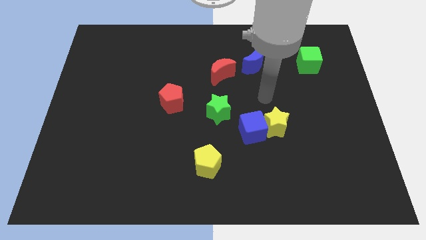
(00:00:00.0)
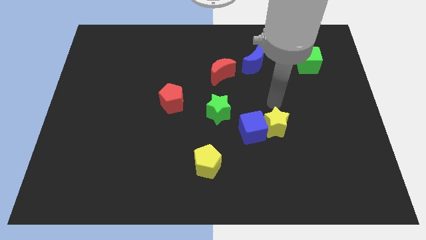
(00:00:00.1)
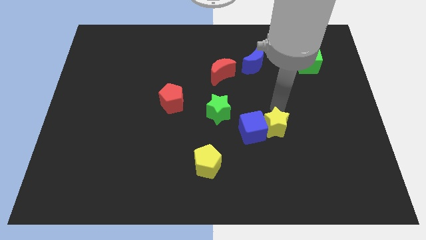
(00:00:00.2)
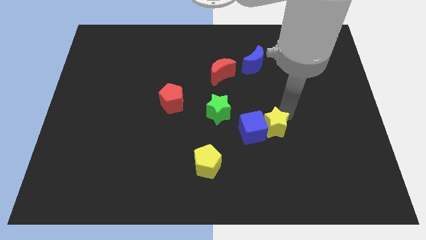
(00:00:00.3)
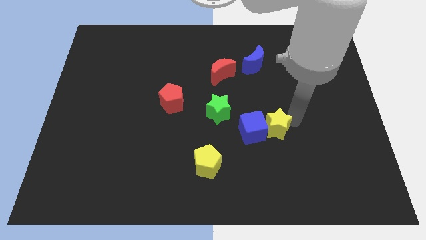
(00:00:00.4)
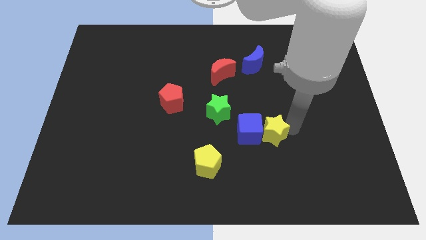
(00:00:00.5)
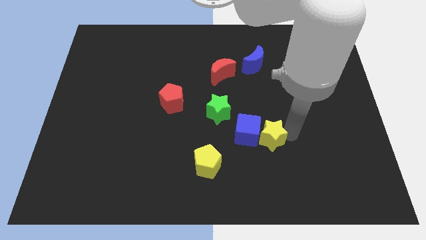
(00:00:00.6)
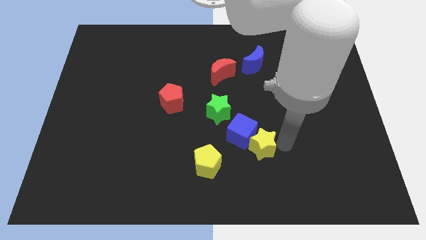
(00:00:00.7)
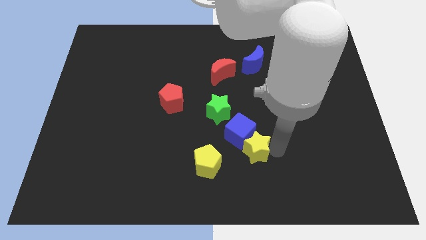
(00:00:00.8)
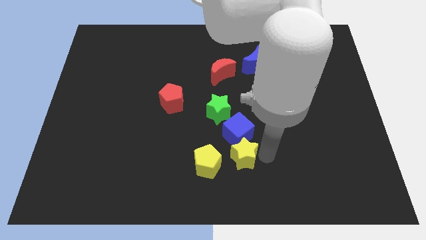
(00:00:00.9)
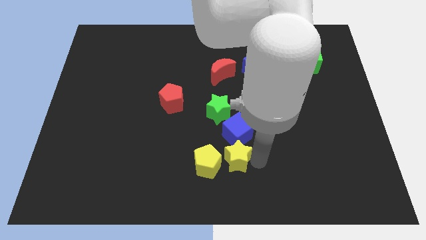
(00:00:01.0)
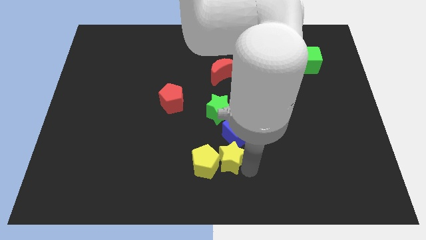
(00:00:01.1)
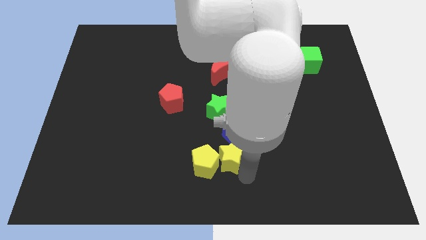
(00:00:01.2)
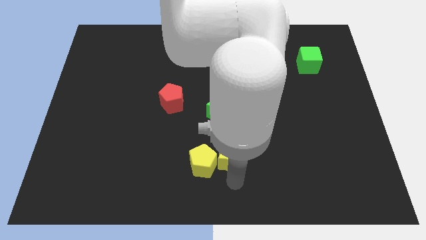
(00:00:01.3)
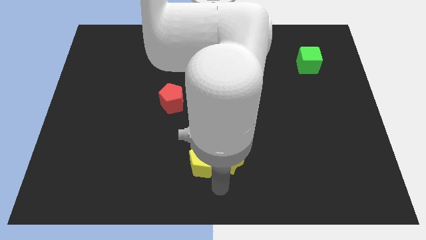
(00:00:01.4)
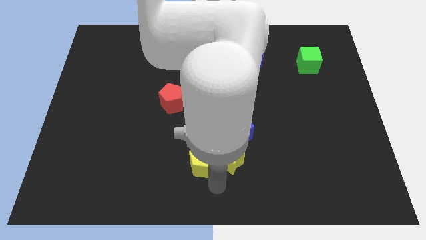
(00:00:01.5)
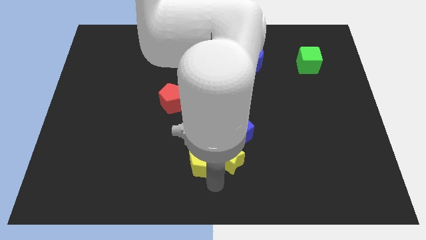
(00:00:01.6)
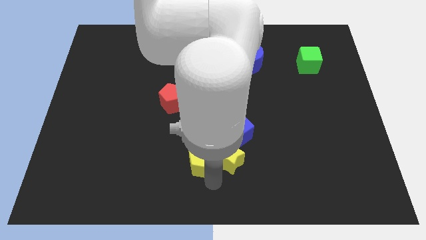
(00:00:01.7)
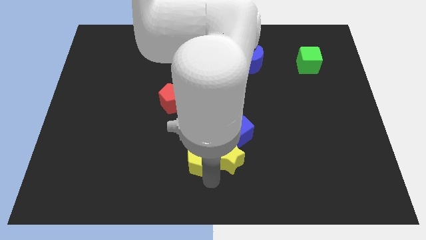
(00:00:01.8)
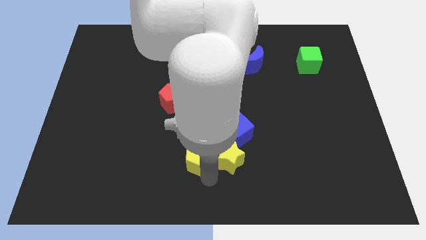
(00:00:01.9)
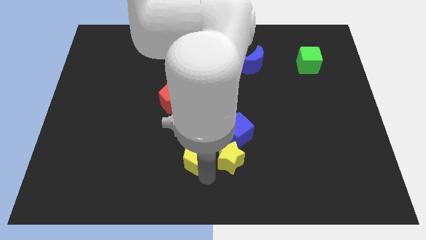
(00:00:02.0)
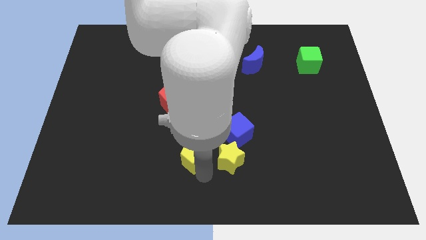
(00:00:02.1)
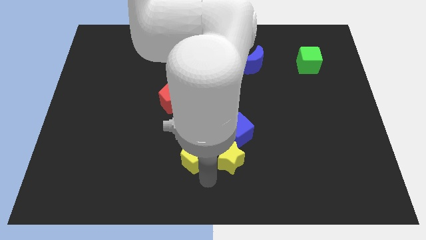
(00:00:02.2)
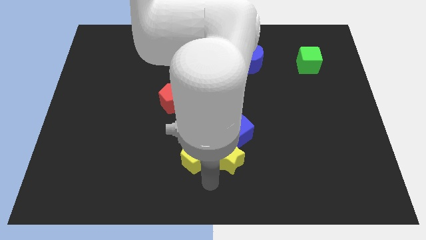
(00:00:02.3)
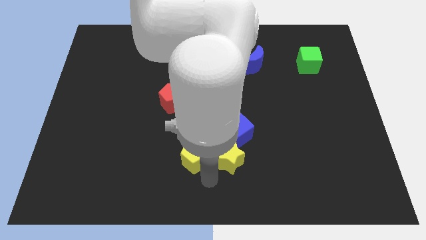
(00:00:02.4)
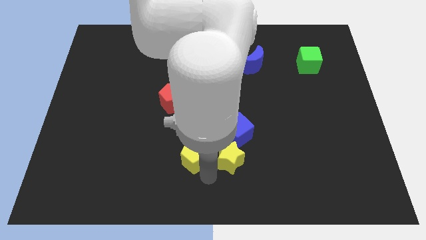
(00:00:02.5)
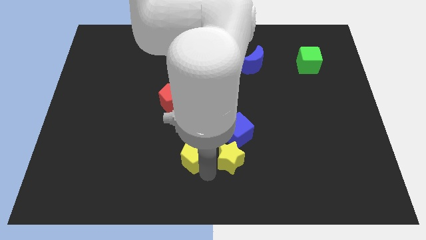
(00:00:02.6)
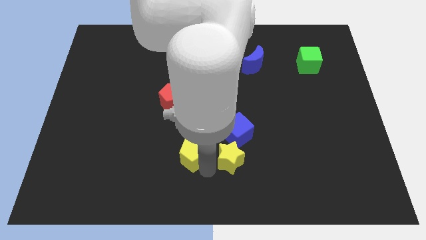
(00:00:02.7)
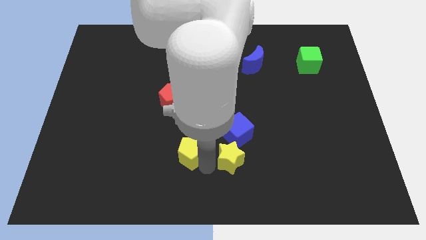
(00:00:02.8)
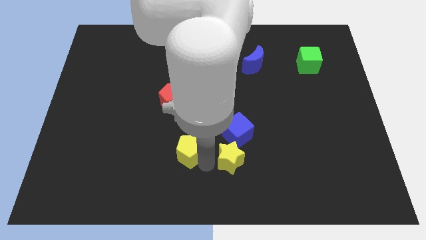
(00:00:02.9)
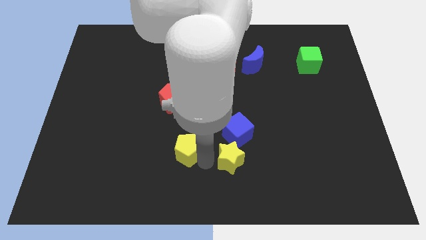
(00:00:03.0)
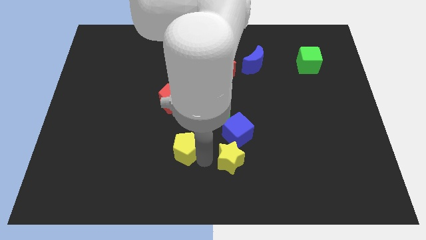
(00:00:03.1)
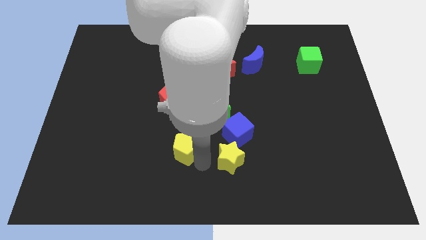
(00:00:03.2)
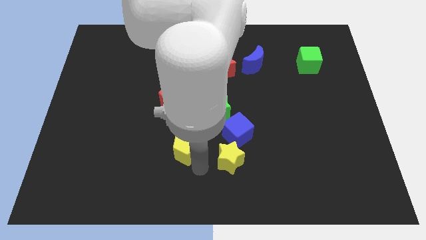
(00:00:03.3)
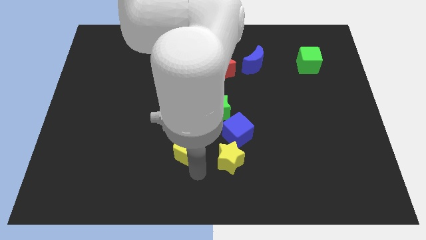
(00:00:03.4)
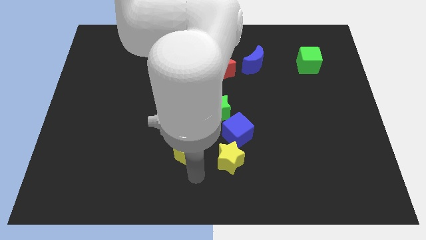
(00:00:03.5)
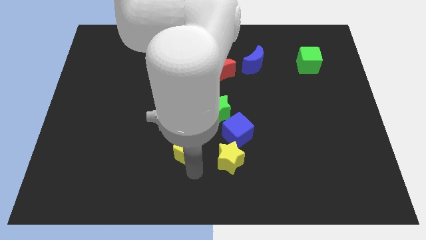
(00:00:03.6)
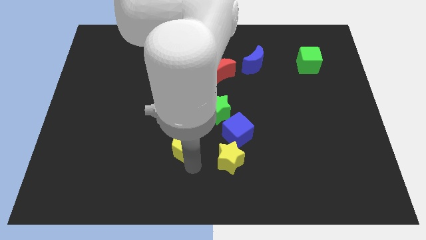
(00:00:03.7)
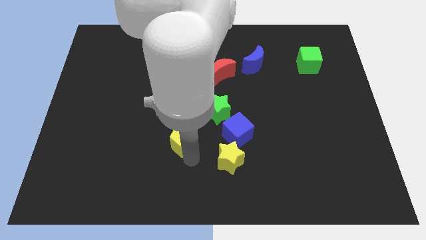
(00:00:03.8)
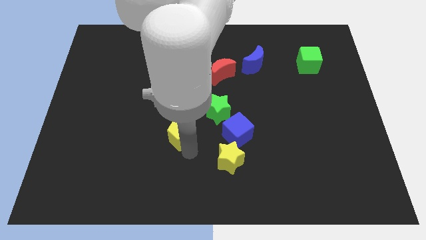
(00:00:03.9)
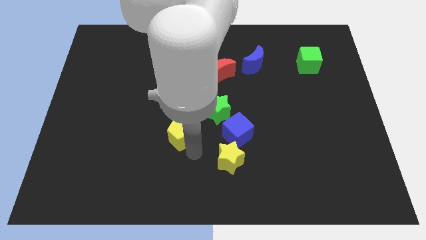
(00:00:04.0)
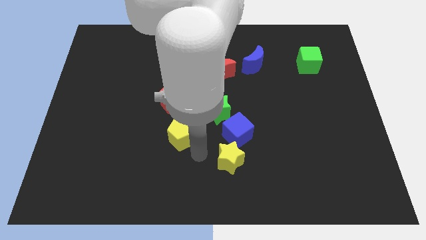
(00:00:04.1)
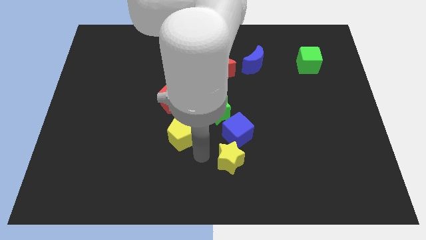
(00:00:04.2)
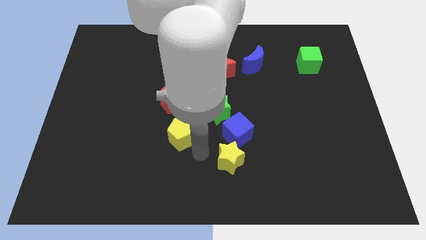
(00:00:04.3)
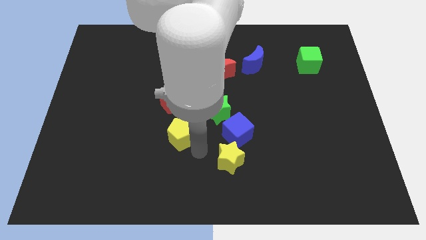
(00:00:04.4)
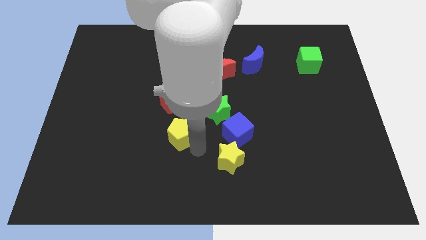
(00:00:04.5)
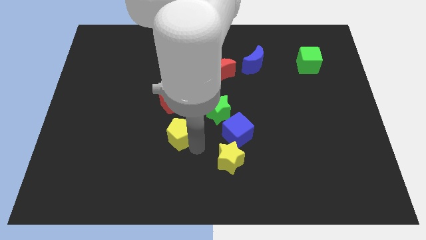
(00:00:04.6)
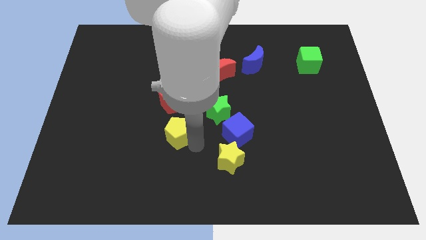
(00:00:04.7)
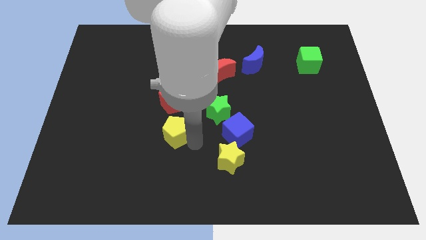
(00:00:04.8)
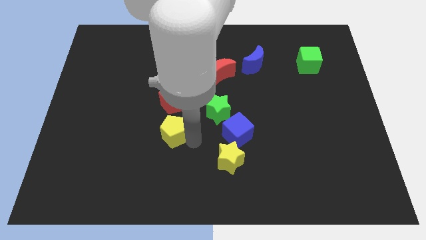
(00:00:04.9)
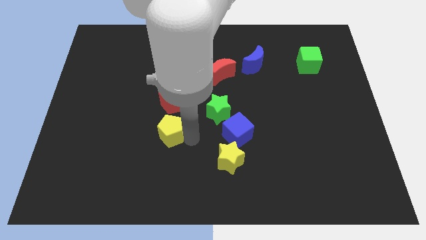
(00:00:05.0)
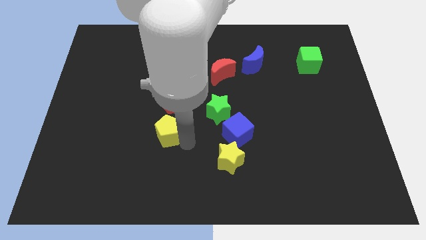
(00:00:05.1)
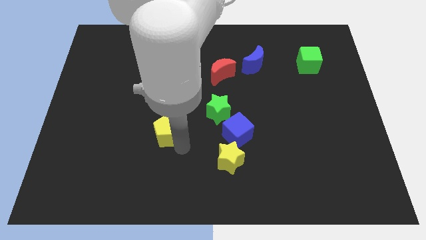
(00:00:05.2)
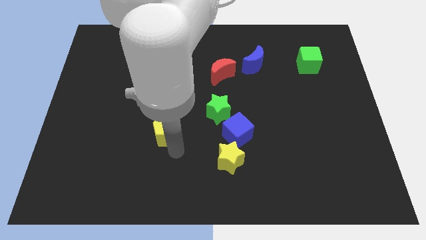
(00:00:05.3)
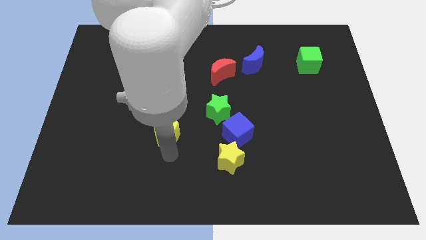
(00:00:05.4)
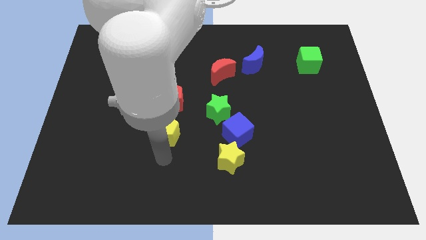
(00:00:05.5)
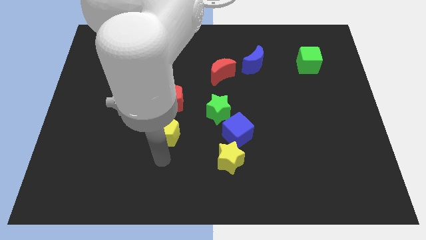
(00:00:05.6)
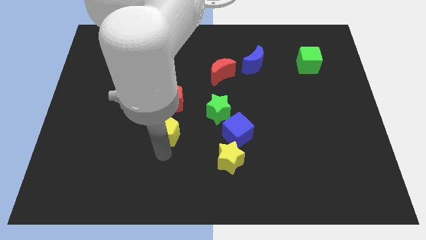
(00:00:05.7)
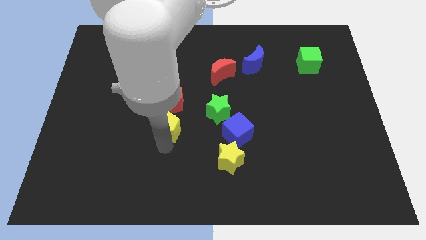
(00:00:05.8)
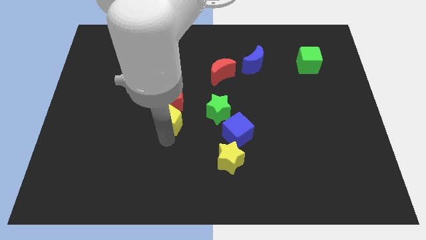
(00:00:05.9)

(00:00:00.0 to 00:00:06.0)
put the yellow pentagon to the left of the green star
